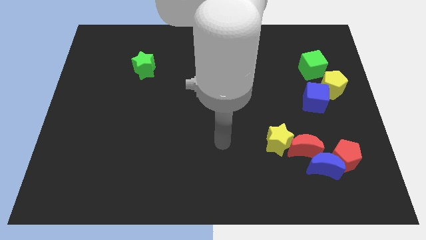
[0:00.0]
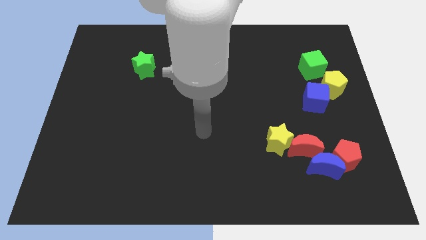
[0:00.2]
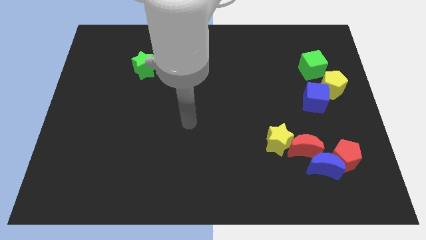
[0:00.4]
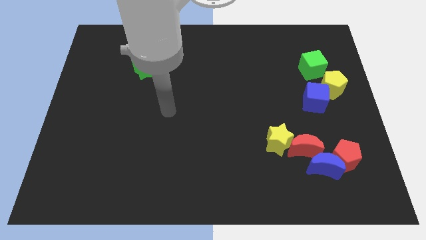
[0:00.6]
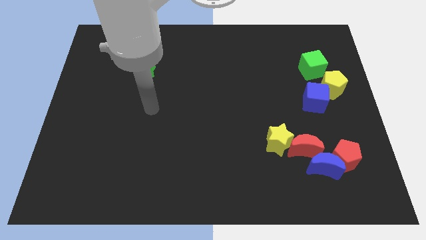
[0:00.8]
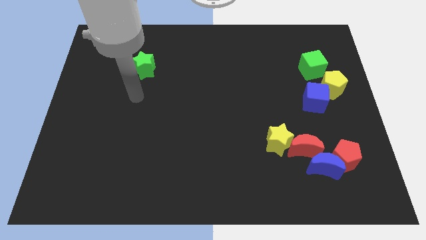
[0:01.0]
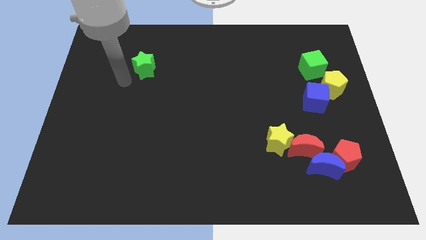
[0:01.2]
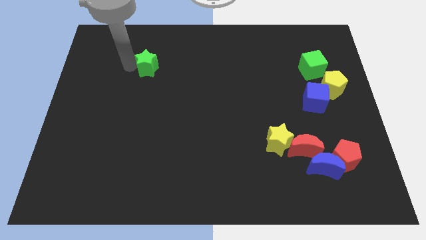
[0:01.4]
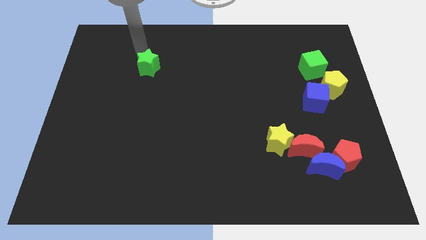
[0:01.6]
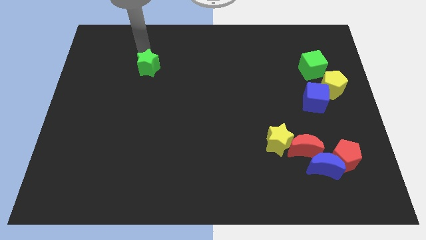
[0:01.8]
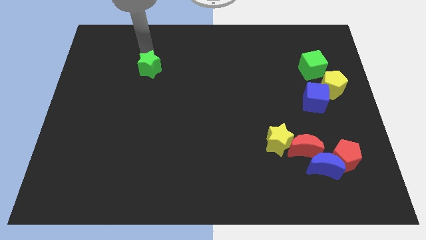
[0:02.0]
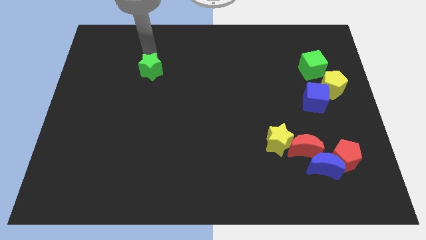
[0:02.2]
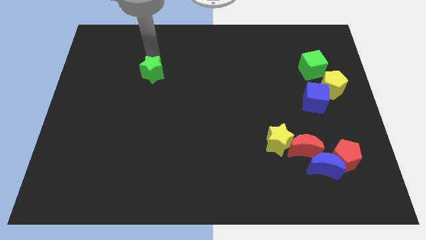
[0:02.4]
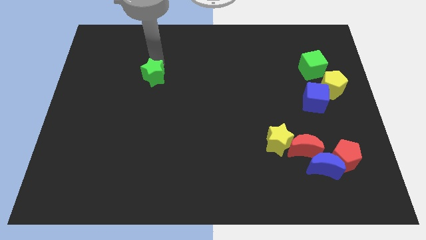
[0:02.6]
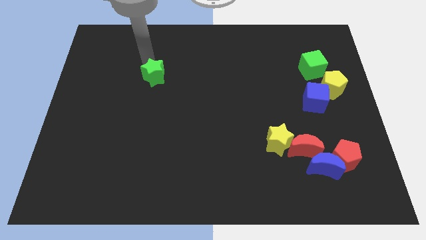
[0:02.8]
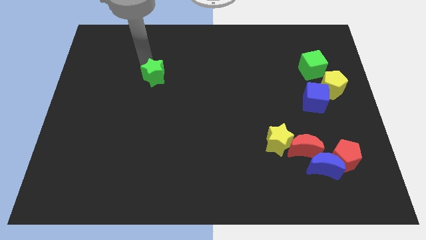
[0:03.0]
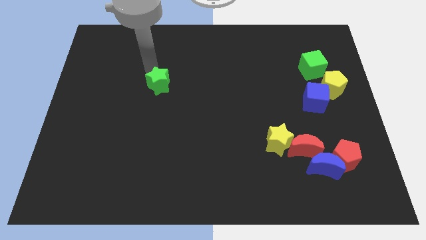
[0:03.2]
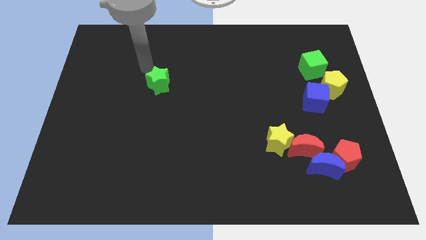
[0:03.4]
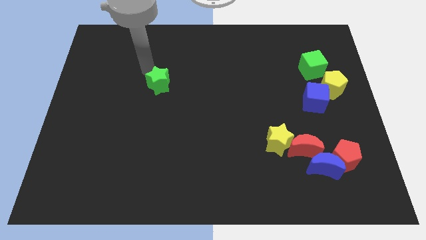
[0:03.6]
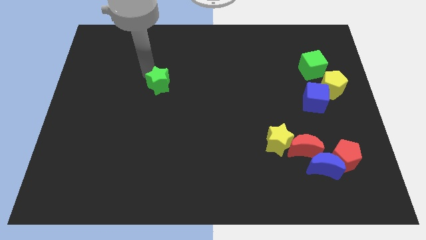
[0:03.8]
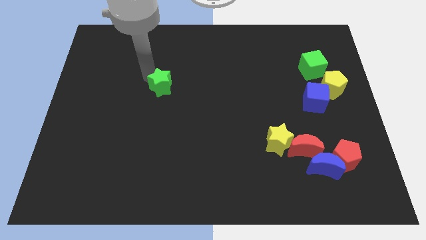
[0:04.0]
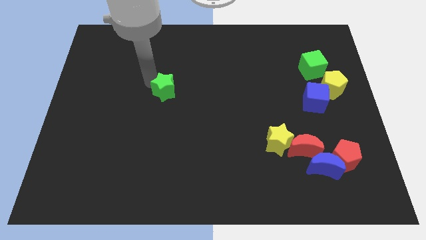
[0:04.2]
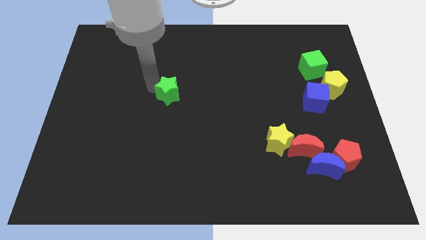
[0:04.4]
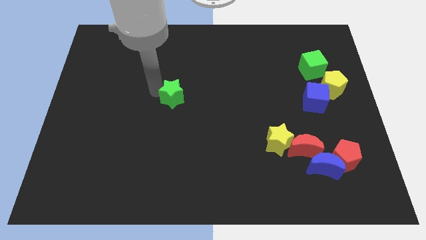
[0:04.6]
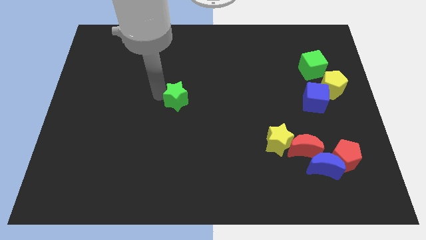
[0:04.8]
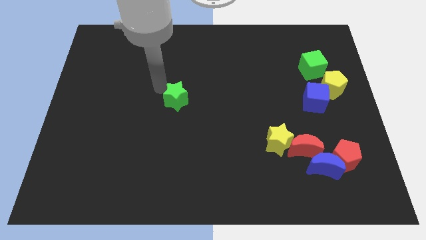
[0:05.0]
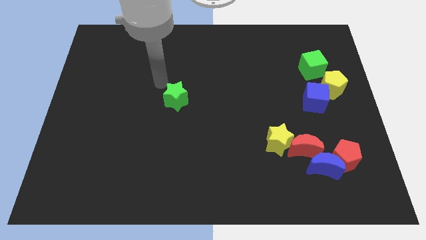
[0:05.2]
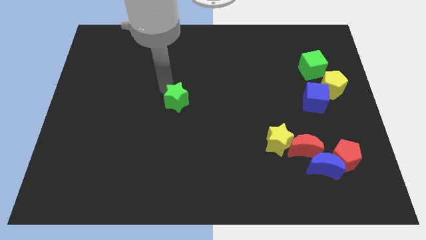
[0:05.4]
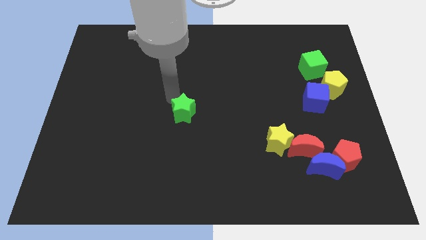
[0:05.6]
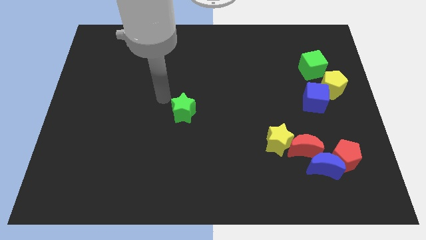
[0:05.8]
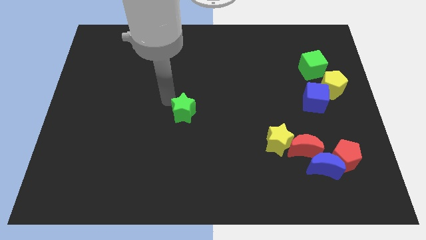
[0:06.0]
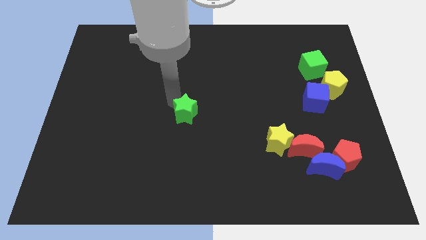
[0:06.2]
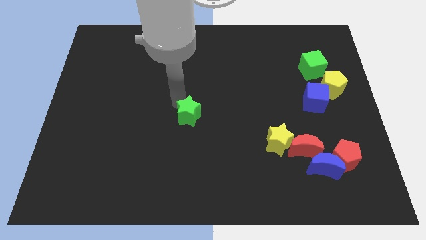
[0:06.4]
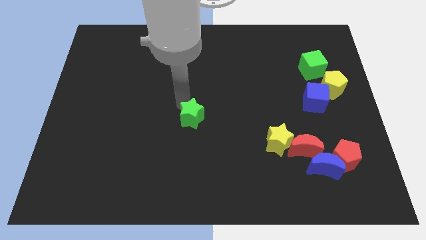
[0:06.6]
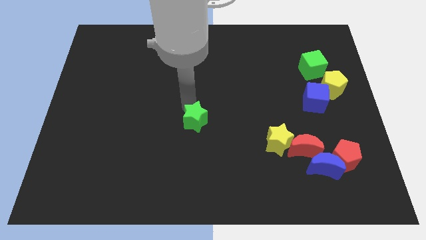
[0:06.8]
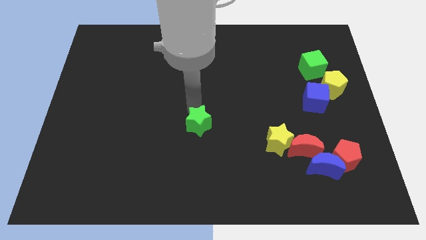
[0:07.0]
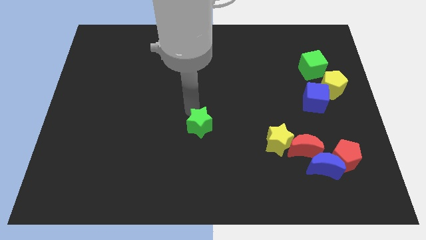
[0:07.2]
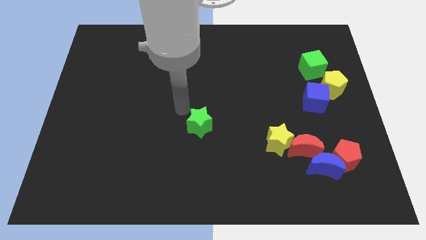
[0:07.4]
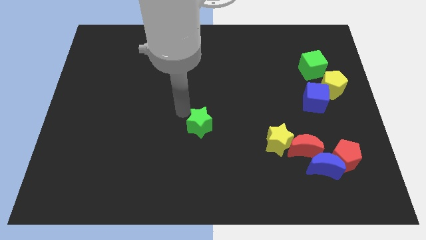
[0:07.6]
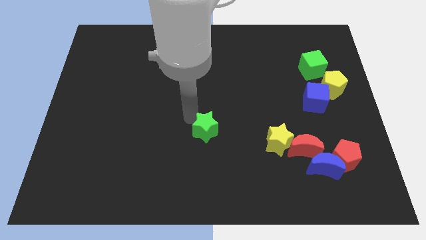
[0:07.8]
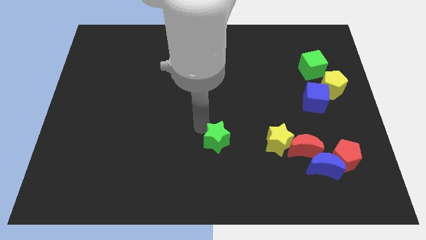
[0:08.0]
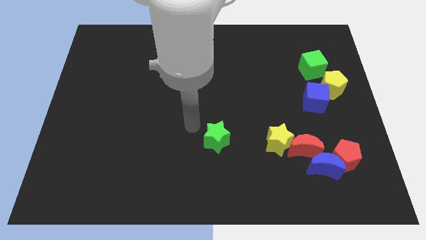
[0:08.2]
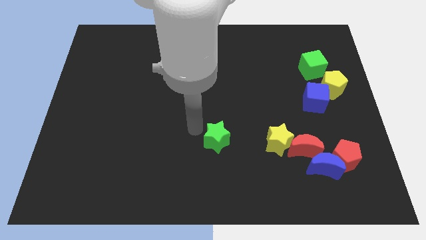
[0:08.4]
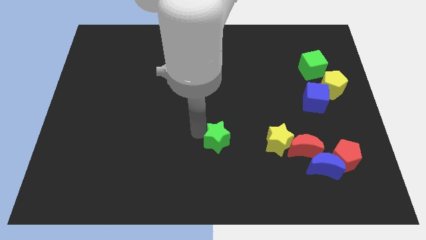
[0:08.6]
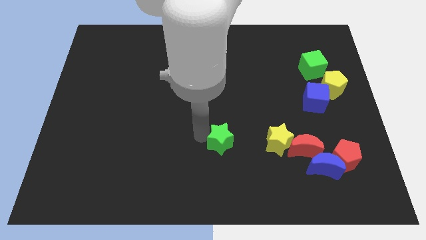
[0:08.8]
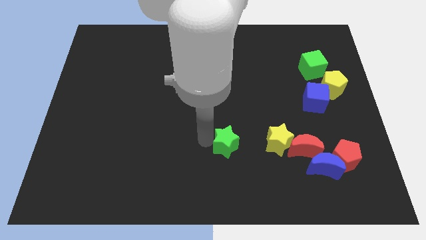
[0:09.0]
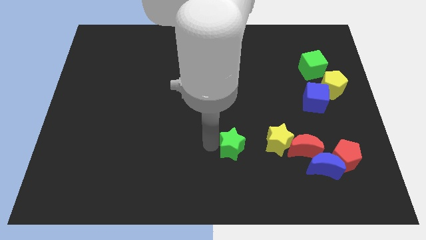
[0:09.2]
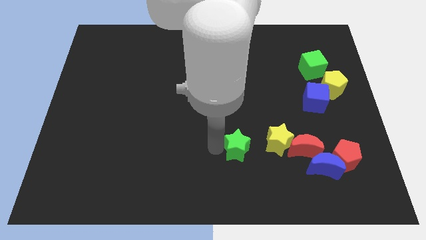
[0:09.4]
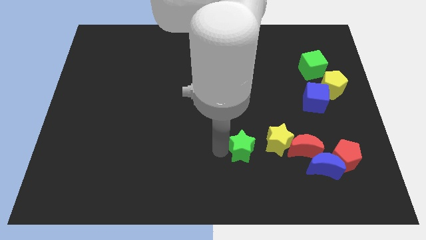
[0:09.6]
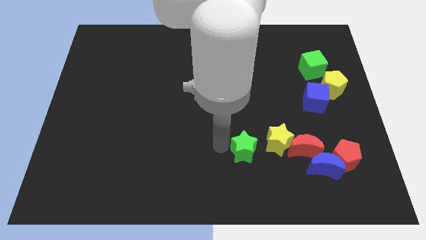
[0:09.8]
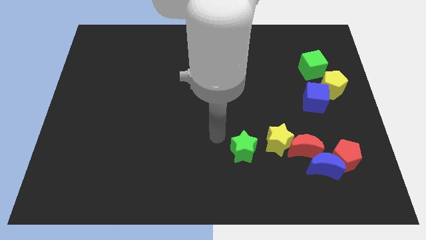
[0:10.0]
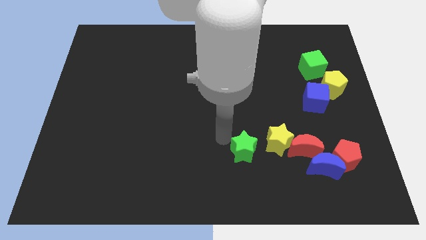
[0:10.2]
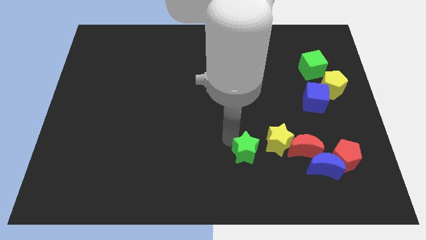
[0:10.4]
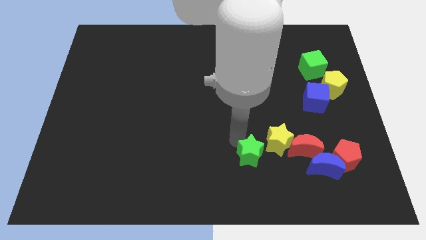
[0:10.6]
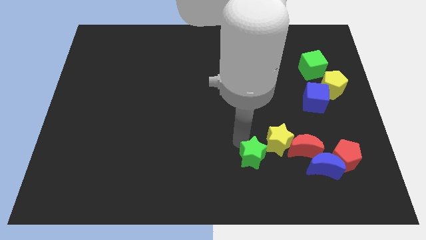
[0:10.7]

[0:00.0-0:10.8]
move the green star to the left of the blue moon

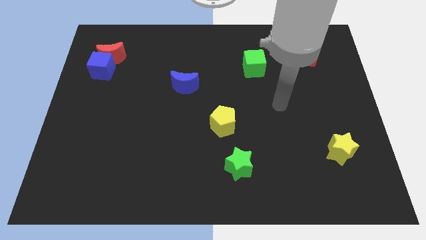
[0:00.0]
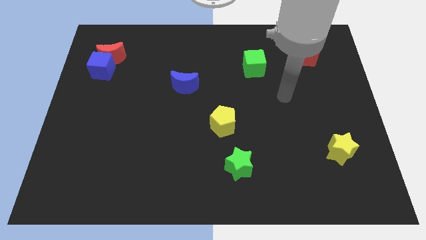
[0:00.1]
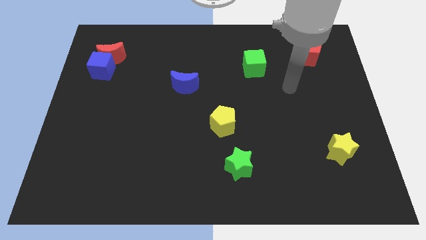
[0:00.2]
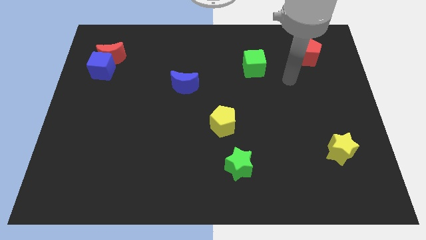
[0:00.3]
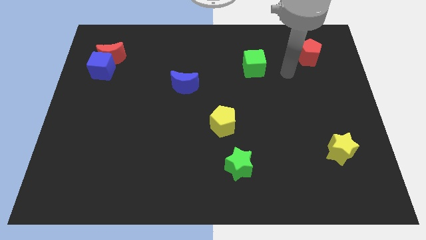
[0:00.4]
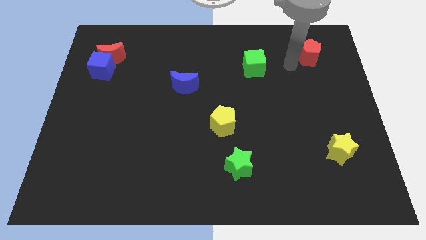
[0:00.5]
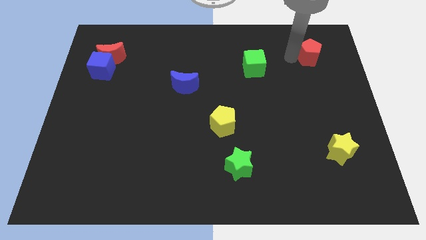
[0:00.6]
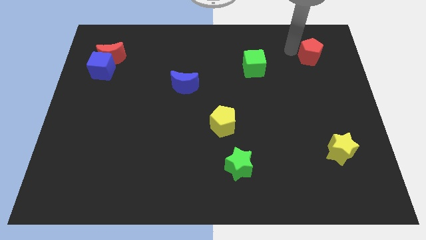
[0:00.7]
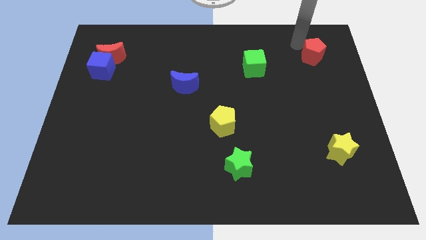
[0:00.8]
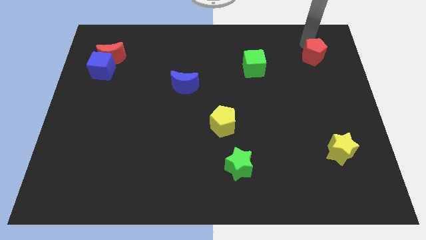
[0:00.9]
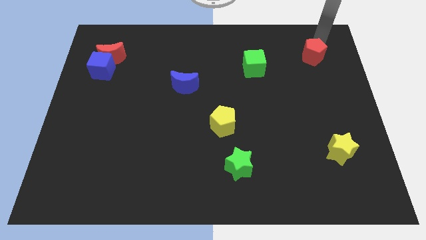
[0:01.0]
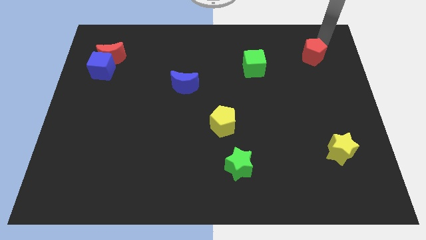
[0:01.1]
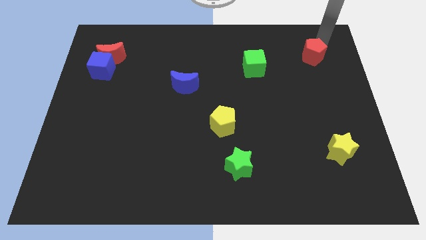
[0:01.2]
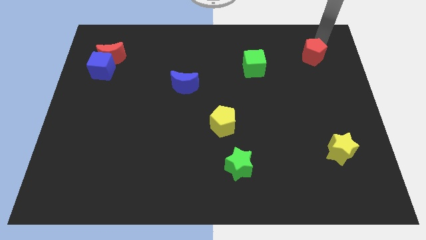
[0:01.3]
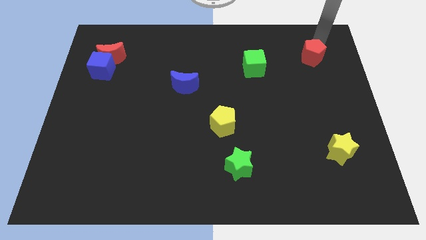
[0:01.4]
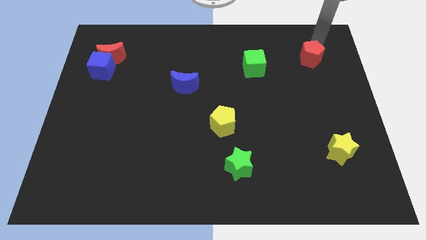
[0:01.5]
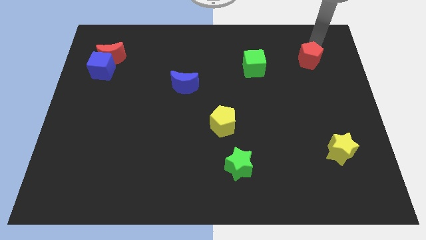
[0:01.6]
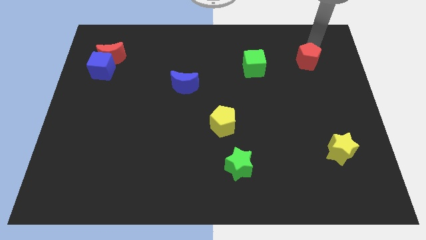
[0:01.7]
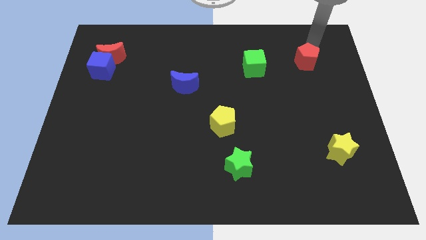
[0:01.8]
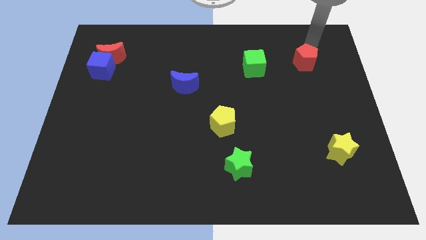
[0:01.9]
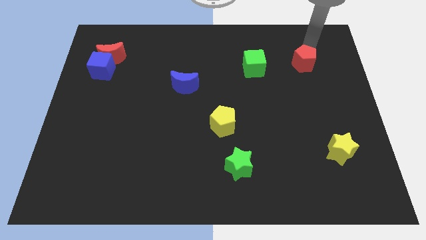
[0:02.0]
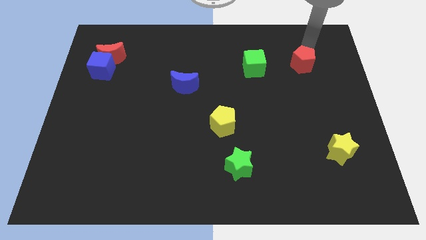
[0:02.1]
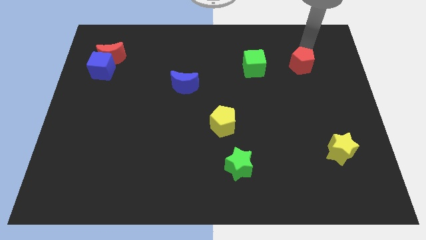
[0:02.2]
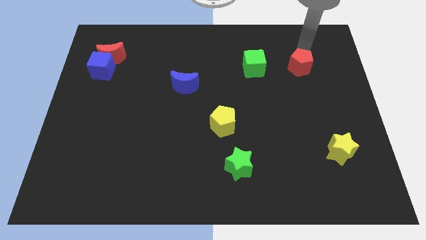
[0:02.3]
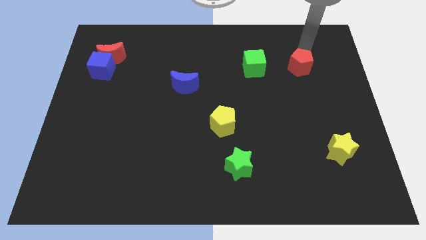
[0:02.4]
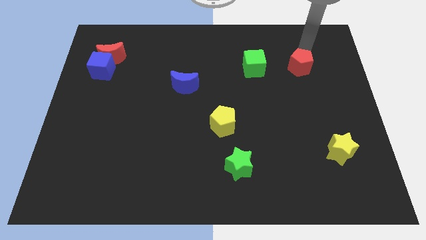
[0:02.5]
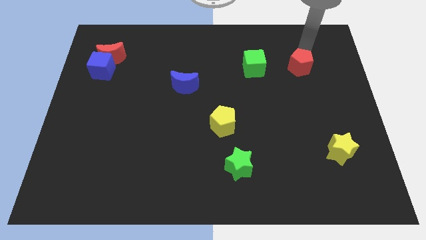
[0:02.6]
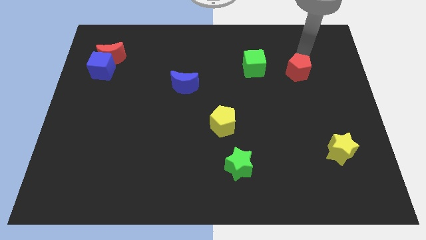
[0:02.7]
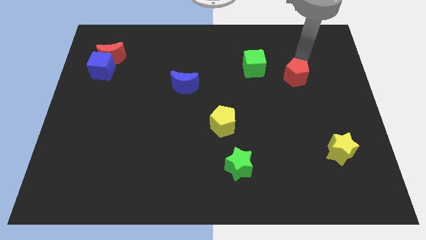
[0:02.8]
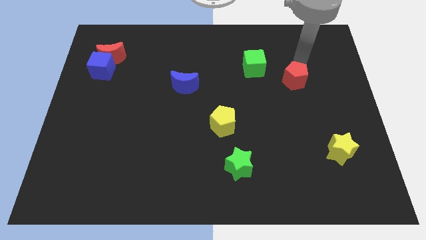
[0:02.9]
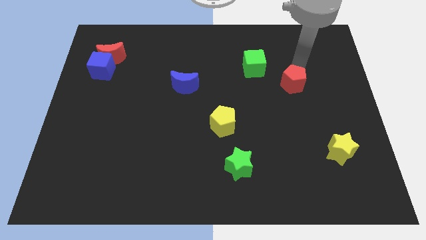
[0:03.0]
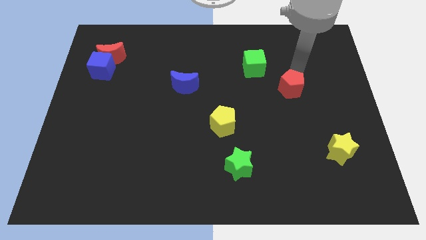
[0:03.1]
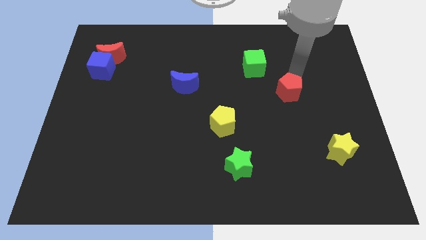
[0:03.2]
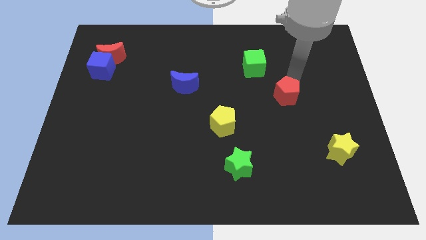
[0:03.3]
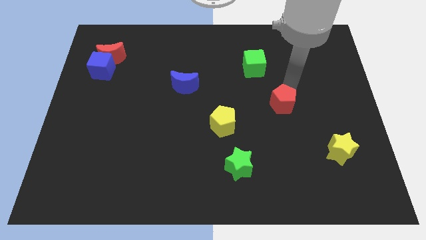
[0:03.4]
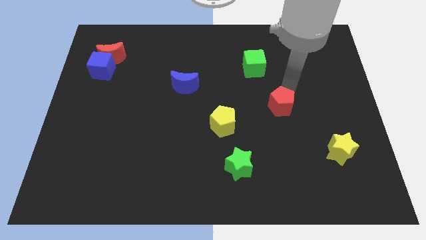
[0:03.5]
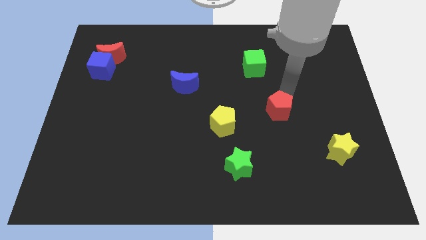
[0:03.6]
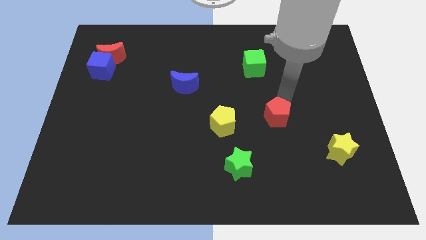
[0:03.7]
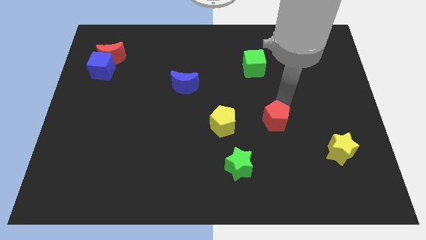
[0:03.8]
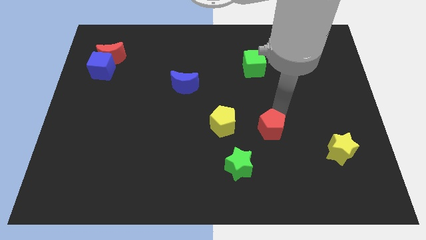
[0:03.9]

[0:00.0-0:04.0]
move the red pentagon to the top right side of the green star
